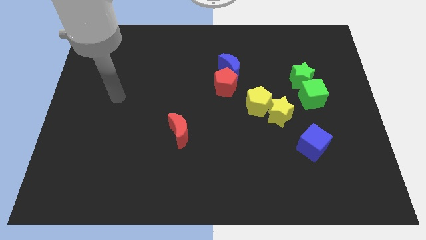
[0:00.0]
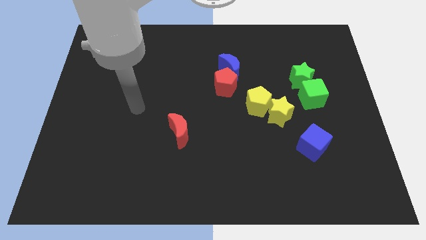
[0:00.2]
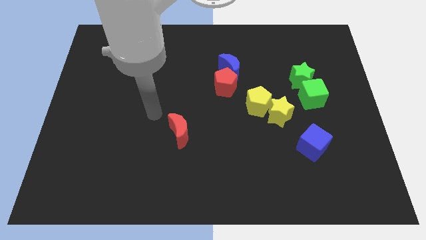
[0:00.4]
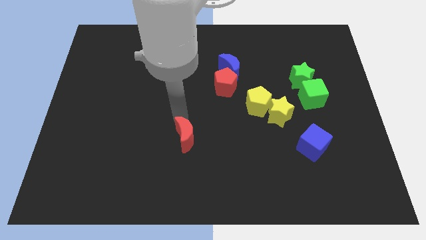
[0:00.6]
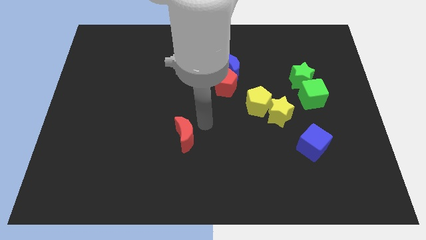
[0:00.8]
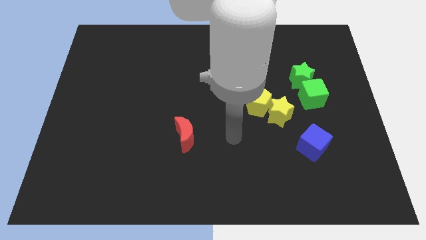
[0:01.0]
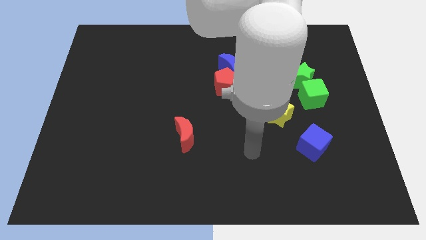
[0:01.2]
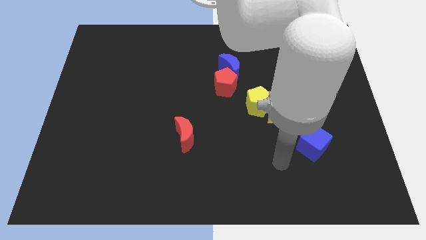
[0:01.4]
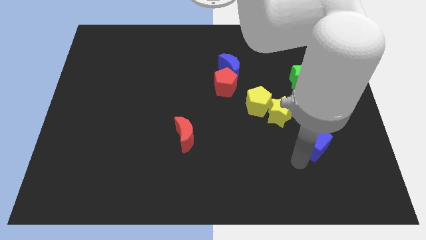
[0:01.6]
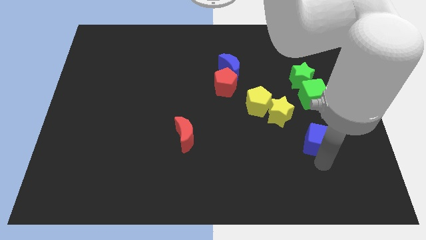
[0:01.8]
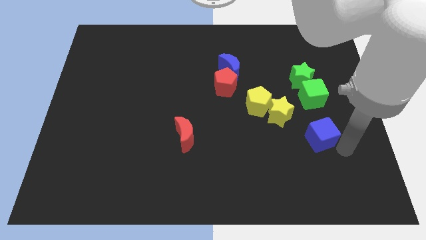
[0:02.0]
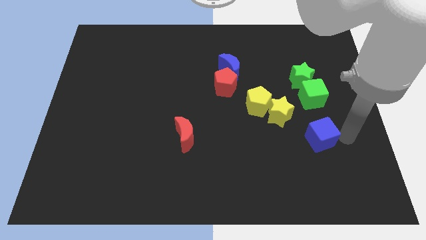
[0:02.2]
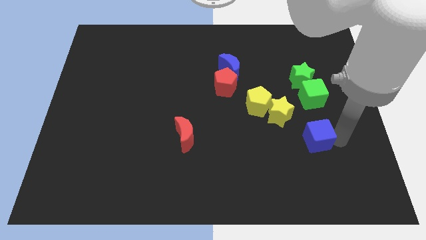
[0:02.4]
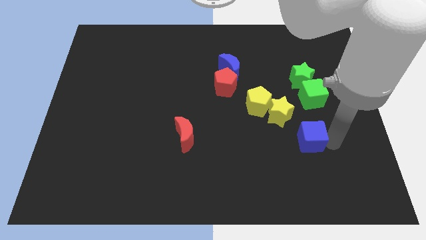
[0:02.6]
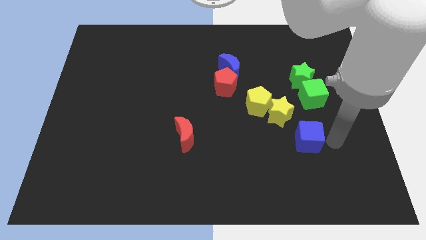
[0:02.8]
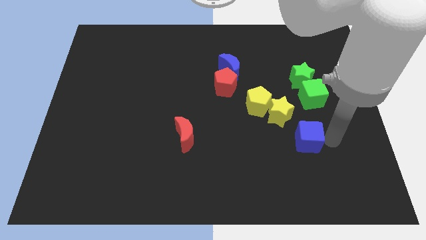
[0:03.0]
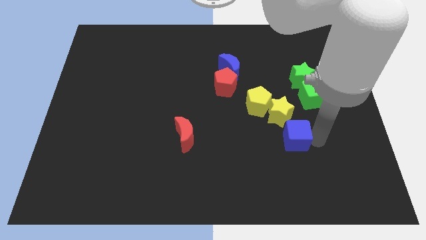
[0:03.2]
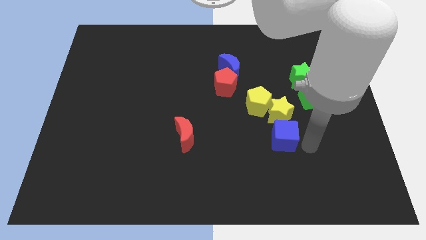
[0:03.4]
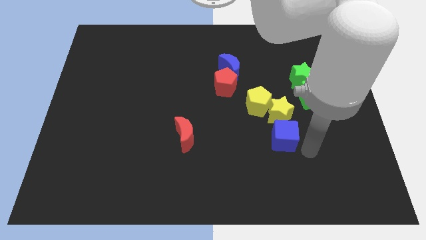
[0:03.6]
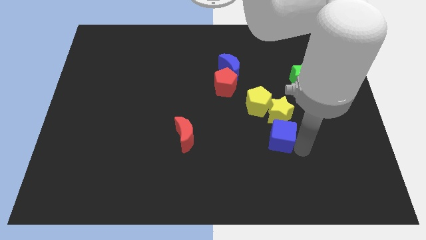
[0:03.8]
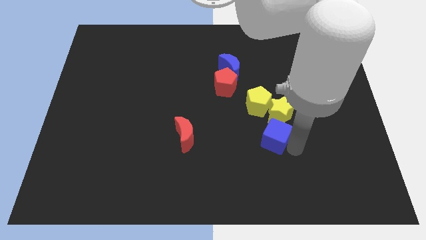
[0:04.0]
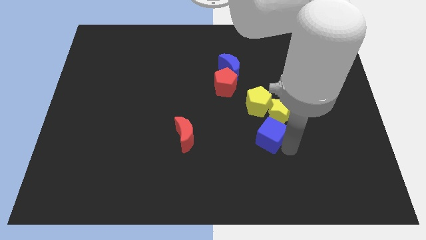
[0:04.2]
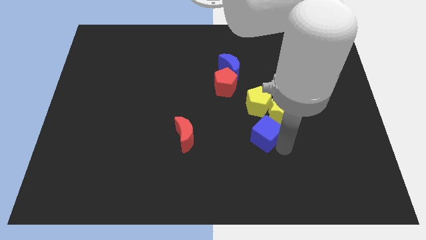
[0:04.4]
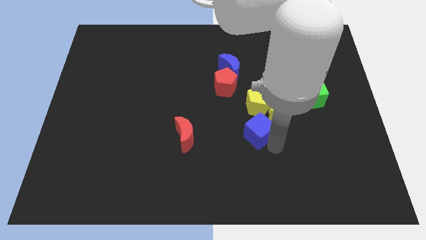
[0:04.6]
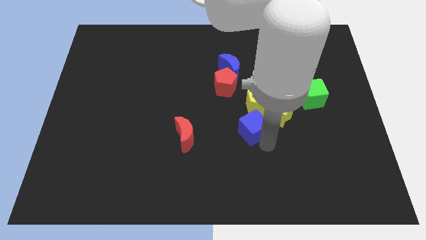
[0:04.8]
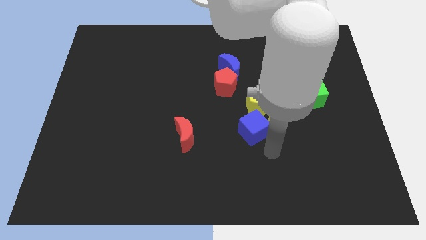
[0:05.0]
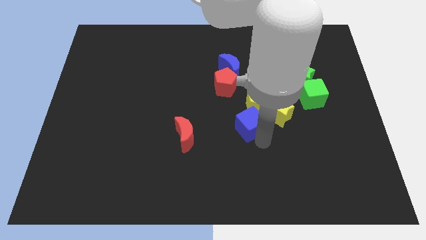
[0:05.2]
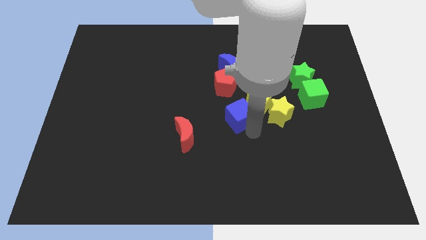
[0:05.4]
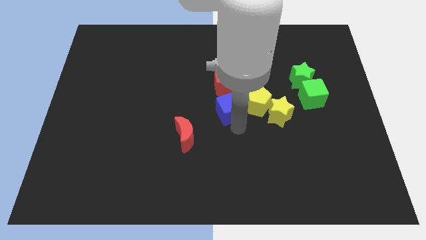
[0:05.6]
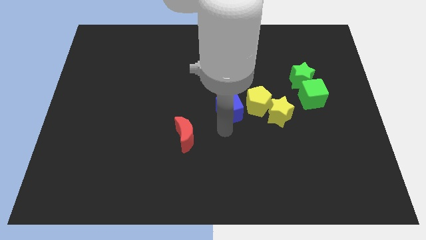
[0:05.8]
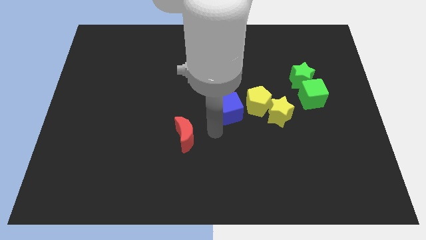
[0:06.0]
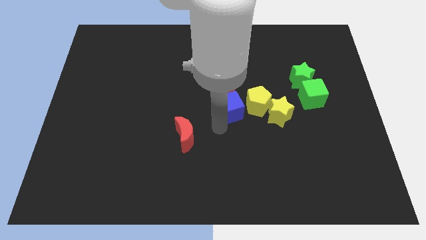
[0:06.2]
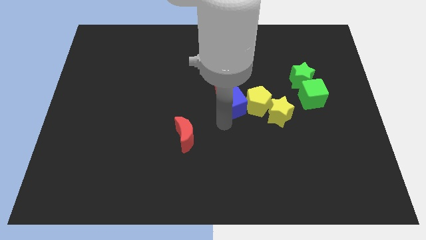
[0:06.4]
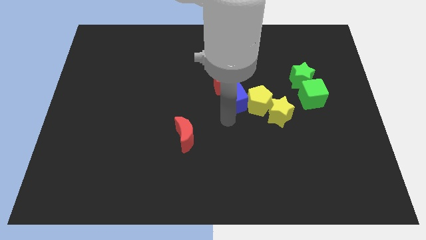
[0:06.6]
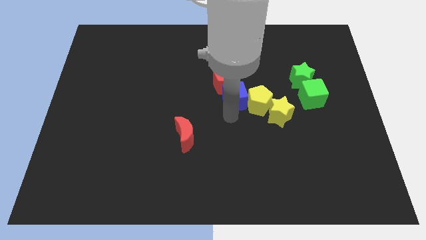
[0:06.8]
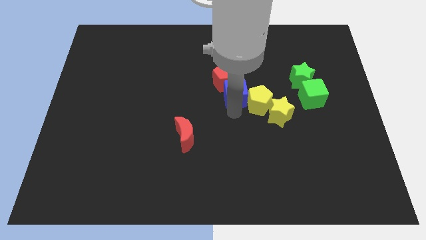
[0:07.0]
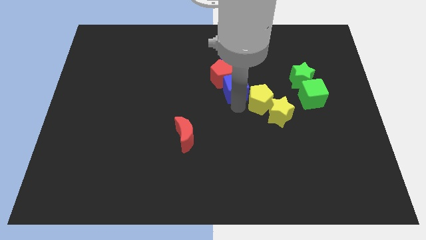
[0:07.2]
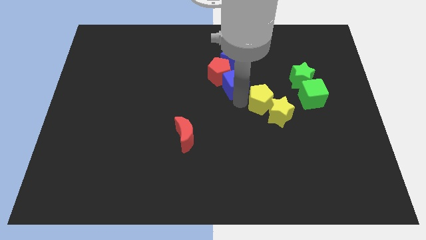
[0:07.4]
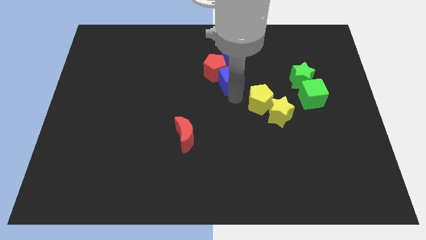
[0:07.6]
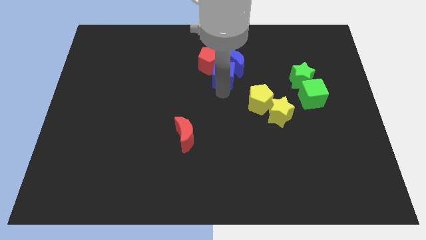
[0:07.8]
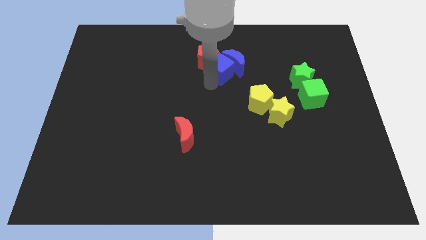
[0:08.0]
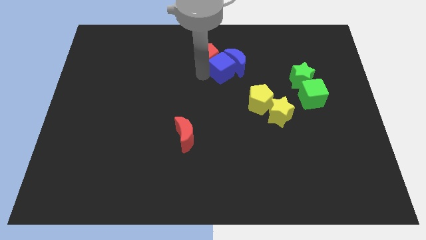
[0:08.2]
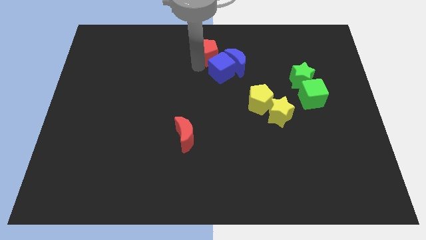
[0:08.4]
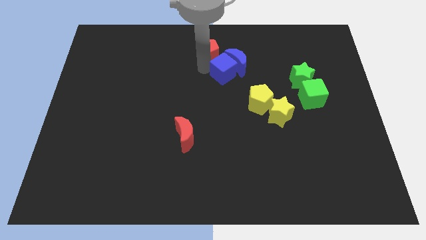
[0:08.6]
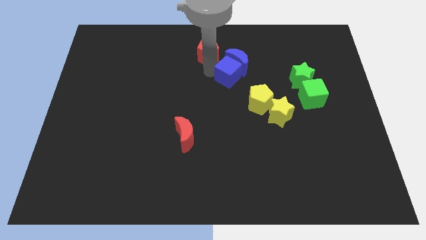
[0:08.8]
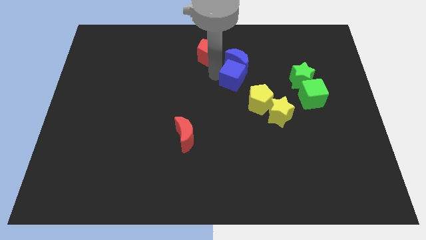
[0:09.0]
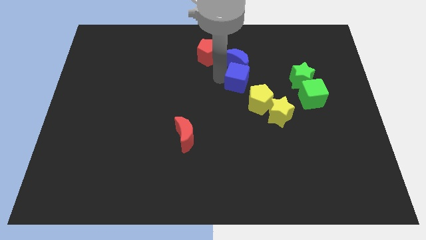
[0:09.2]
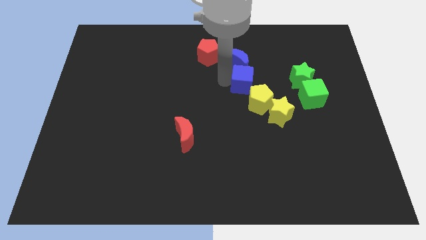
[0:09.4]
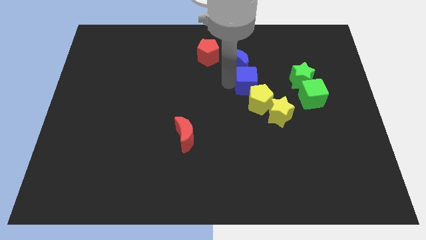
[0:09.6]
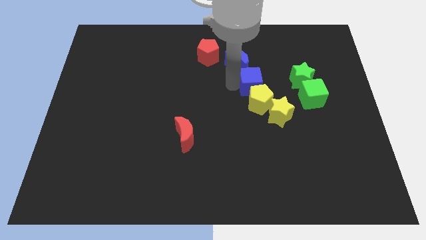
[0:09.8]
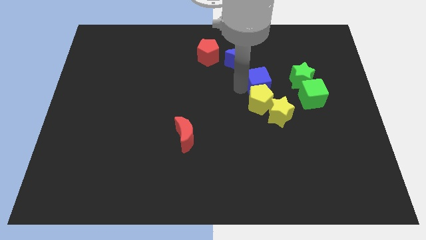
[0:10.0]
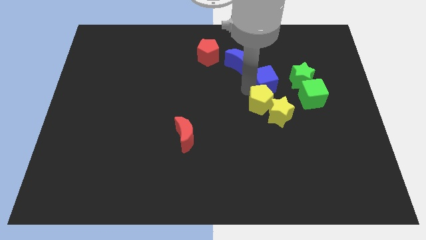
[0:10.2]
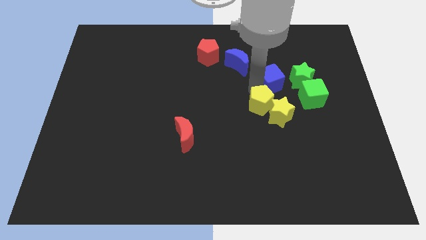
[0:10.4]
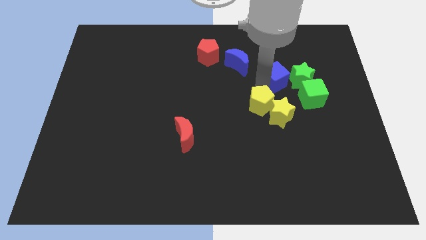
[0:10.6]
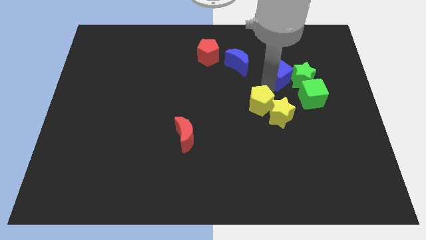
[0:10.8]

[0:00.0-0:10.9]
slide the blue cube just right of the blue moon

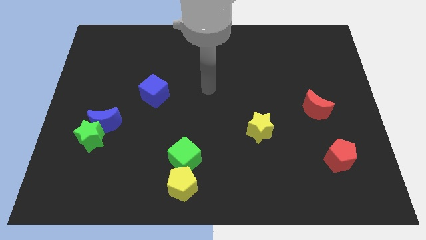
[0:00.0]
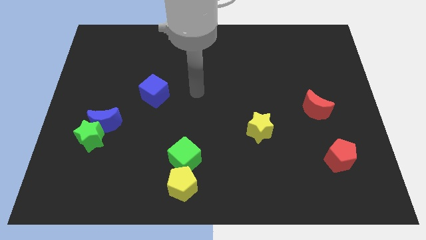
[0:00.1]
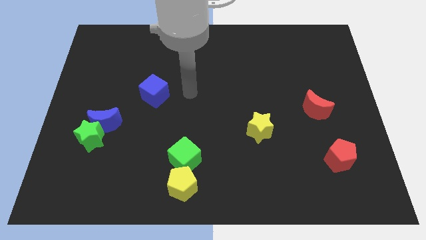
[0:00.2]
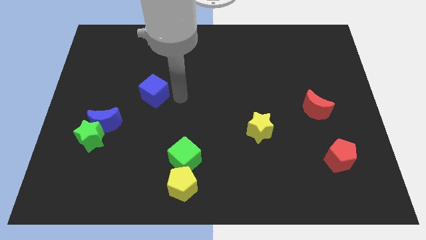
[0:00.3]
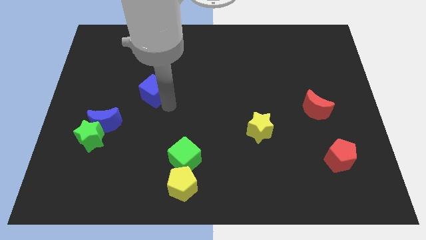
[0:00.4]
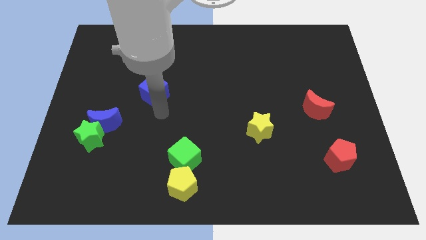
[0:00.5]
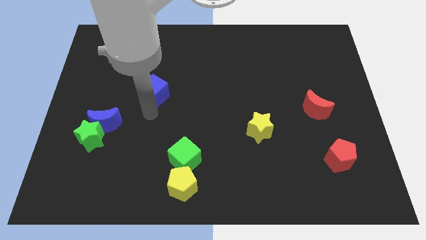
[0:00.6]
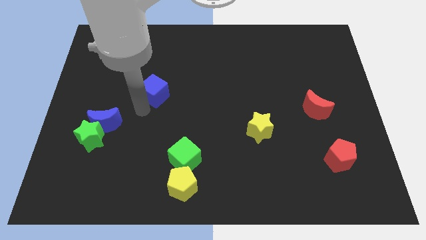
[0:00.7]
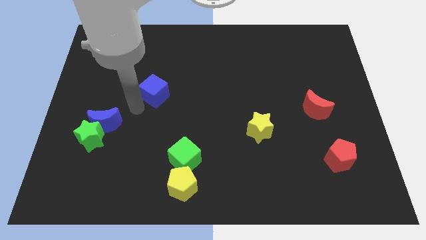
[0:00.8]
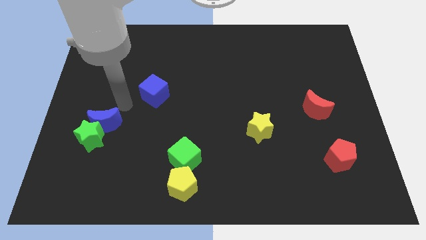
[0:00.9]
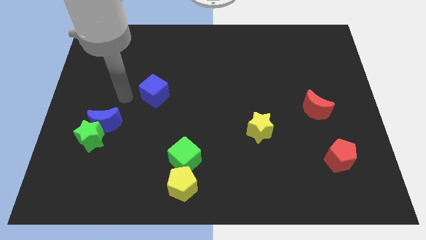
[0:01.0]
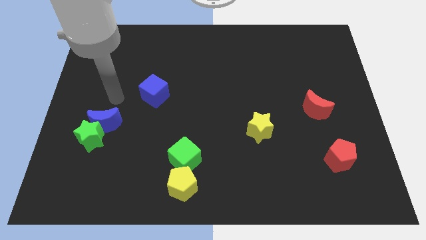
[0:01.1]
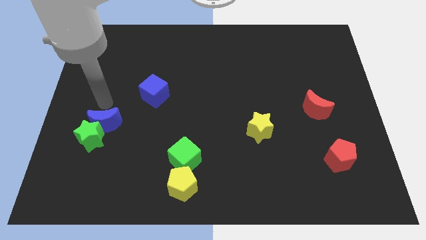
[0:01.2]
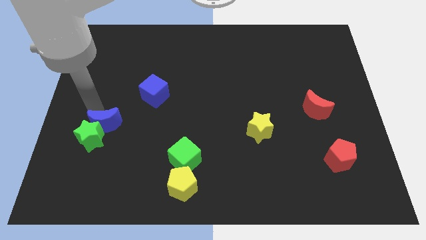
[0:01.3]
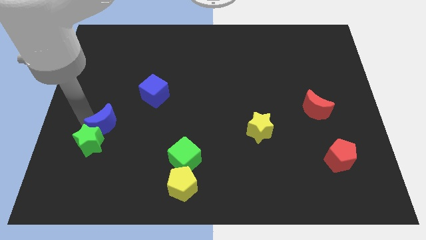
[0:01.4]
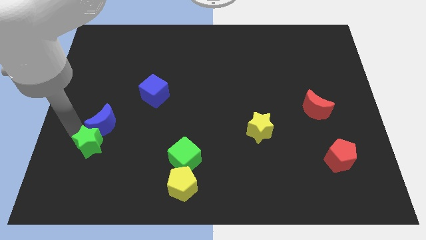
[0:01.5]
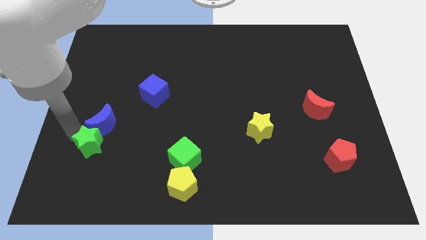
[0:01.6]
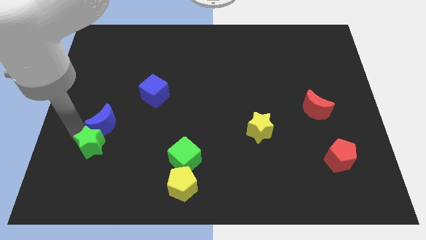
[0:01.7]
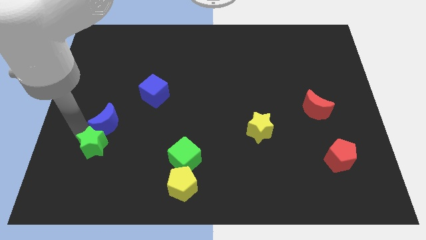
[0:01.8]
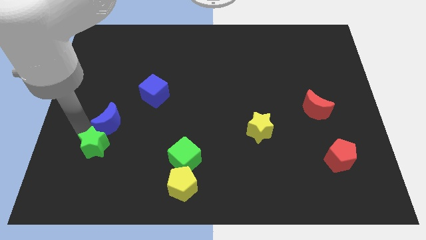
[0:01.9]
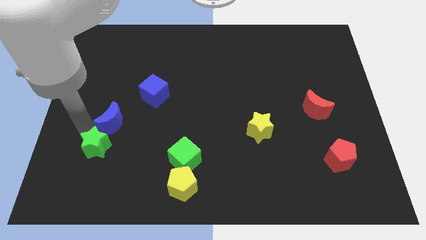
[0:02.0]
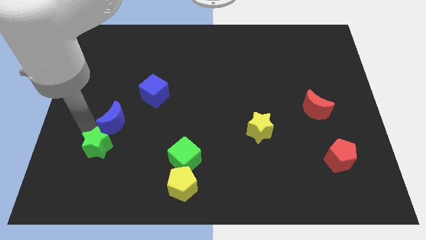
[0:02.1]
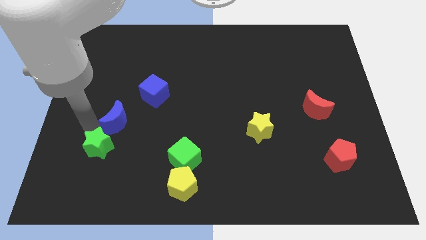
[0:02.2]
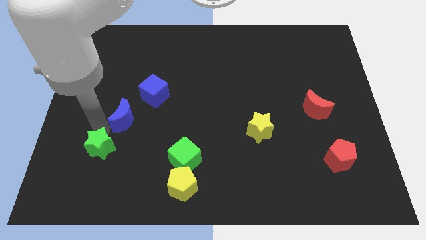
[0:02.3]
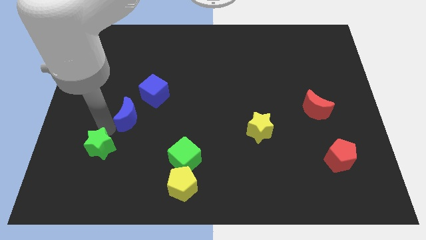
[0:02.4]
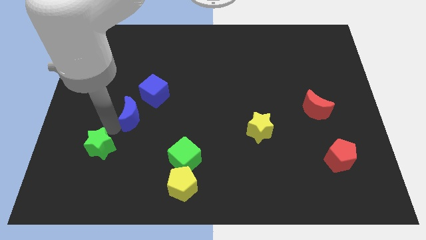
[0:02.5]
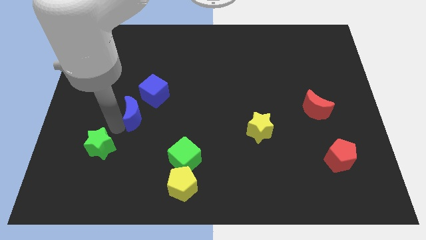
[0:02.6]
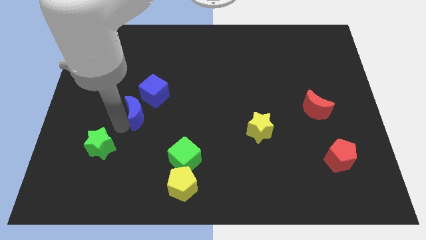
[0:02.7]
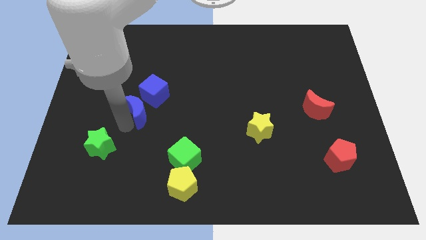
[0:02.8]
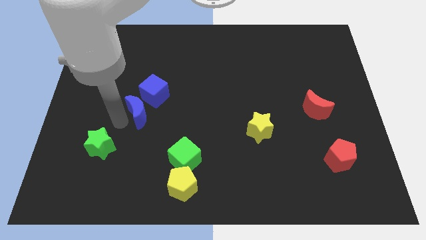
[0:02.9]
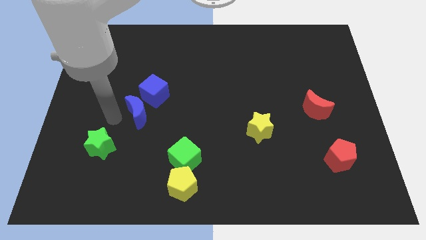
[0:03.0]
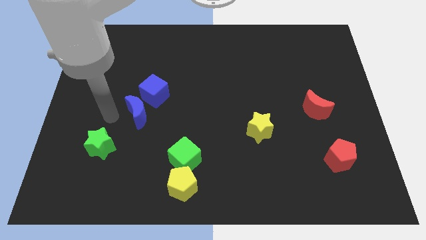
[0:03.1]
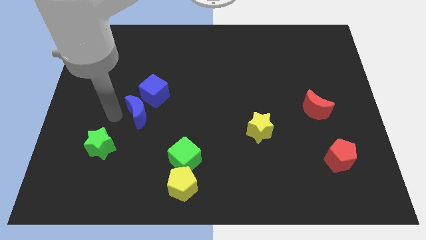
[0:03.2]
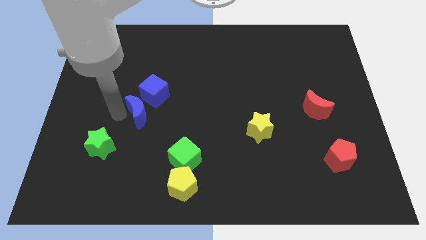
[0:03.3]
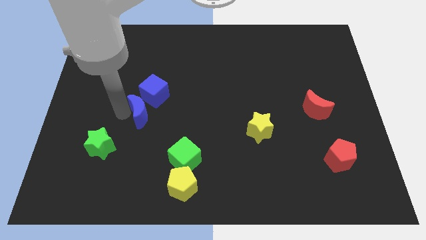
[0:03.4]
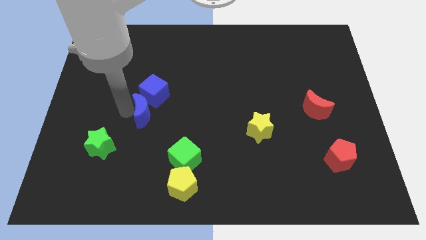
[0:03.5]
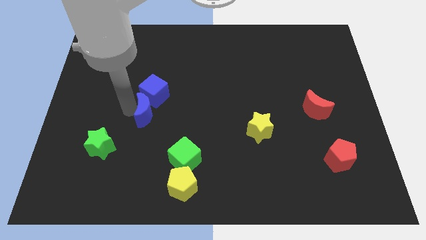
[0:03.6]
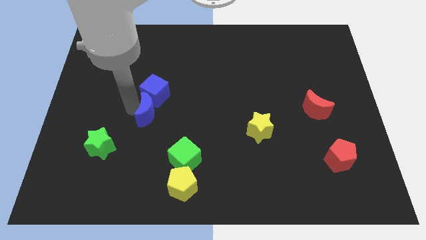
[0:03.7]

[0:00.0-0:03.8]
slide the blue moon to the bottom right side of the blue cube
